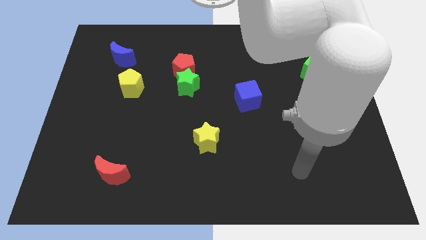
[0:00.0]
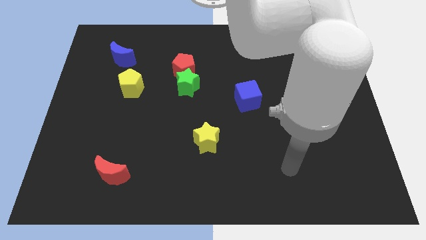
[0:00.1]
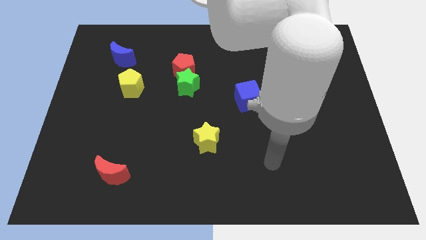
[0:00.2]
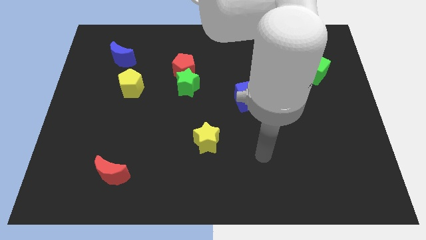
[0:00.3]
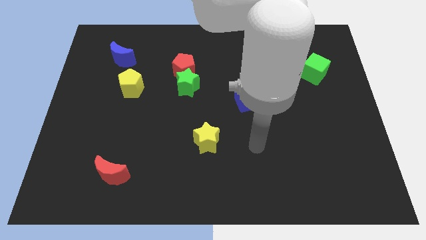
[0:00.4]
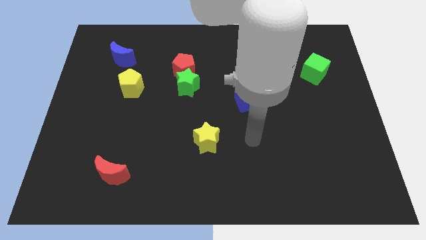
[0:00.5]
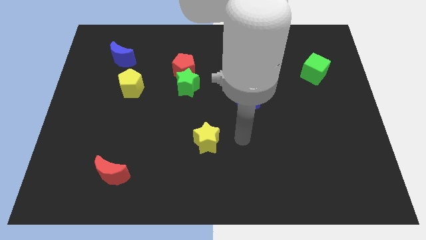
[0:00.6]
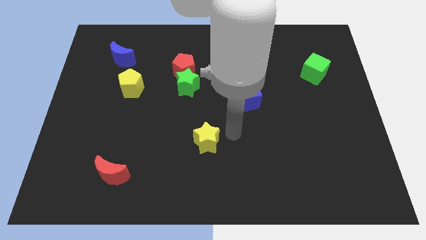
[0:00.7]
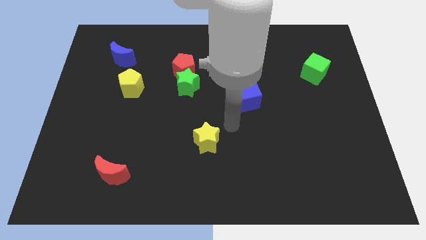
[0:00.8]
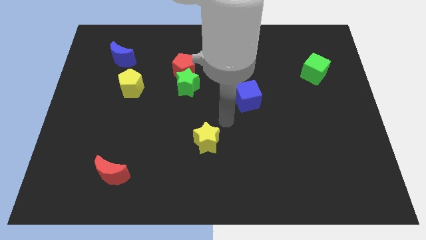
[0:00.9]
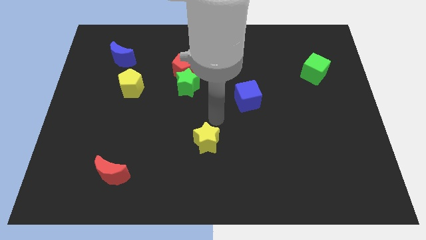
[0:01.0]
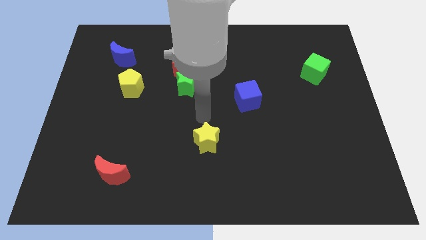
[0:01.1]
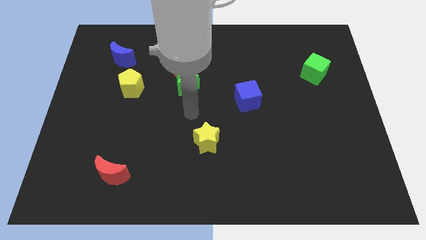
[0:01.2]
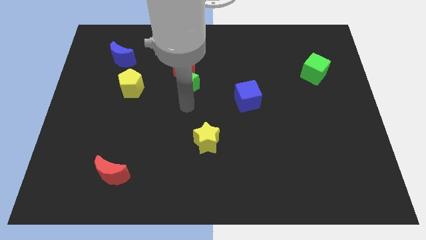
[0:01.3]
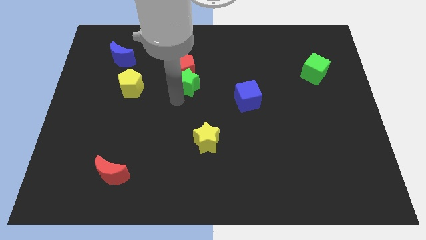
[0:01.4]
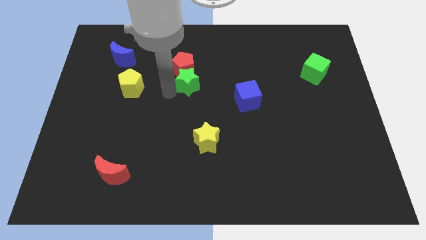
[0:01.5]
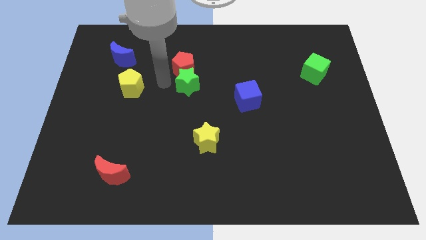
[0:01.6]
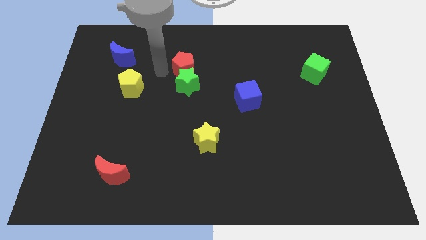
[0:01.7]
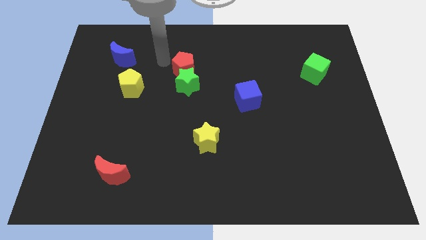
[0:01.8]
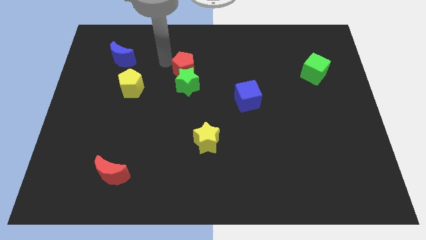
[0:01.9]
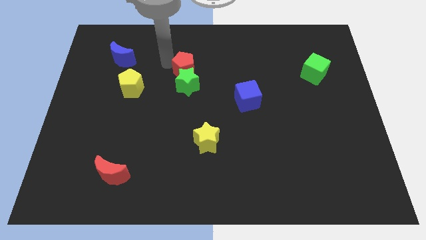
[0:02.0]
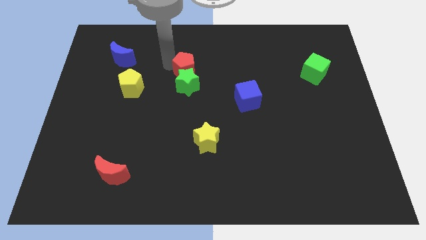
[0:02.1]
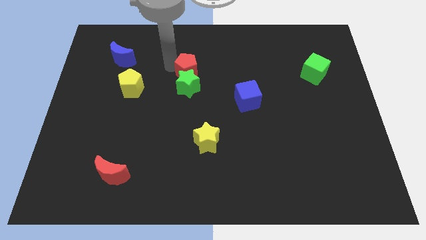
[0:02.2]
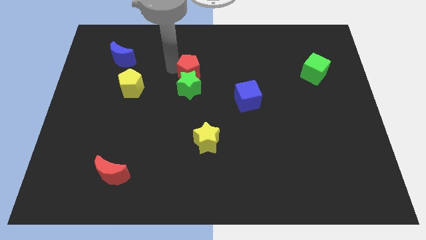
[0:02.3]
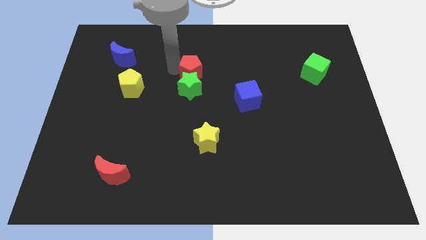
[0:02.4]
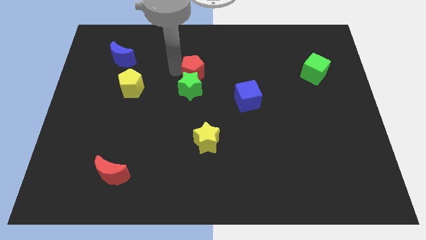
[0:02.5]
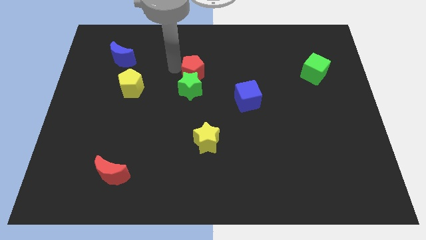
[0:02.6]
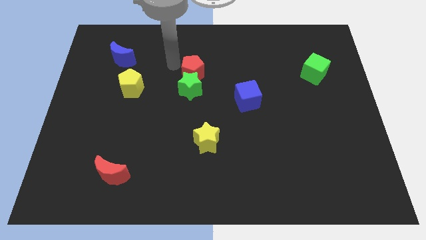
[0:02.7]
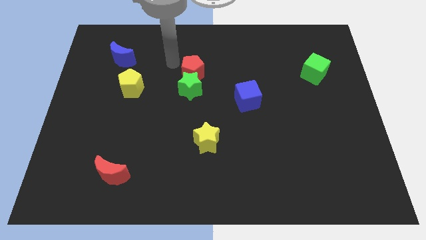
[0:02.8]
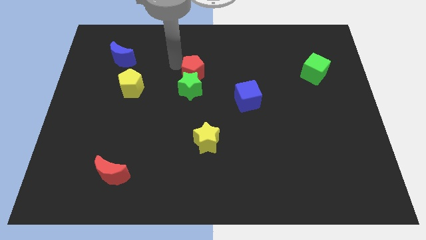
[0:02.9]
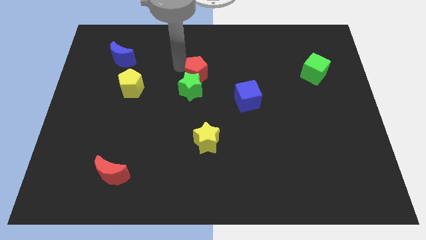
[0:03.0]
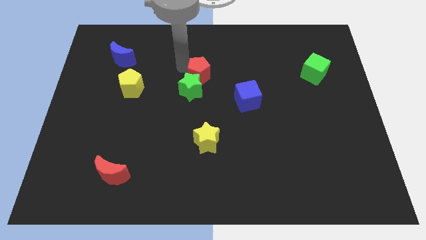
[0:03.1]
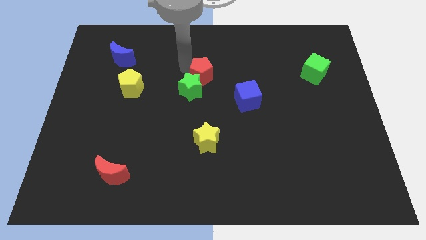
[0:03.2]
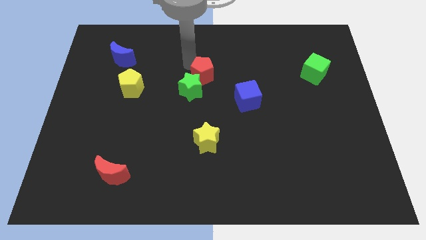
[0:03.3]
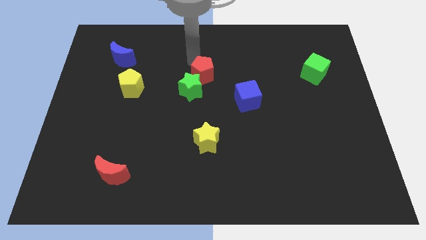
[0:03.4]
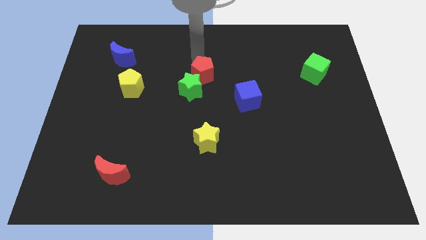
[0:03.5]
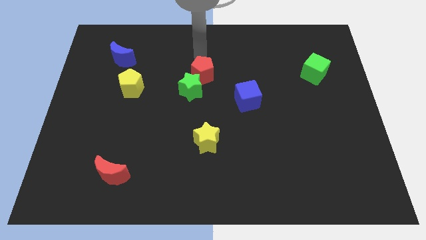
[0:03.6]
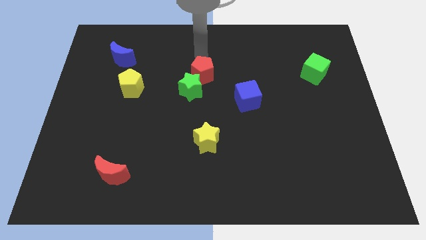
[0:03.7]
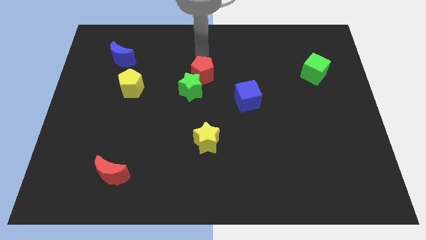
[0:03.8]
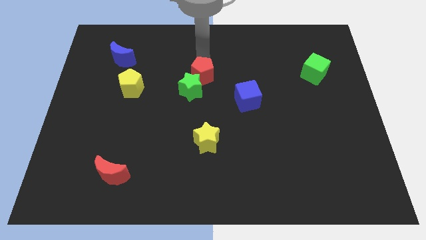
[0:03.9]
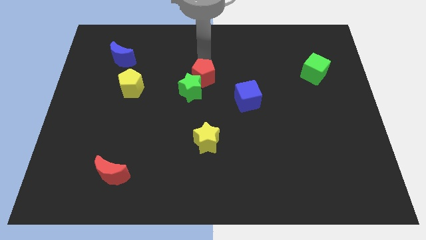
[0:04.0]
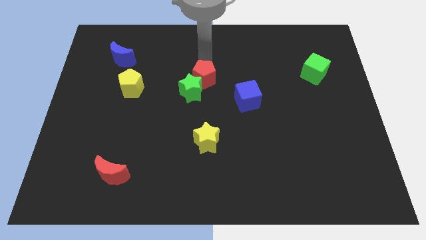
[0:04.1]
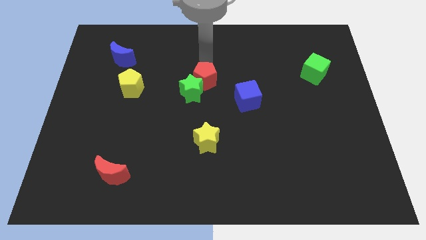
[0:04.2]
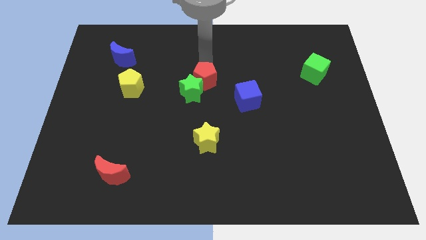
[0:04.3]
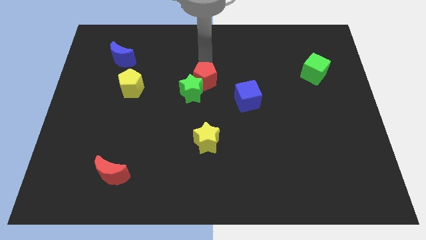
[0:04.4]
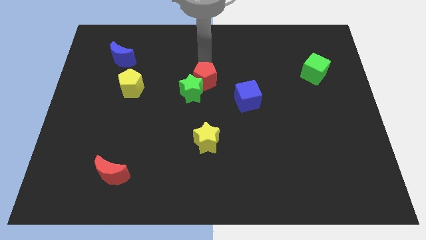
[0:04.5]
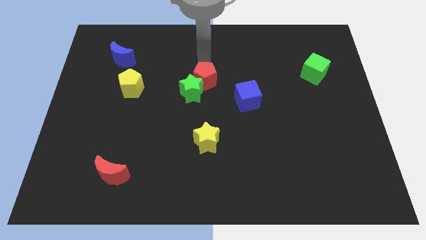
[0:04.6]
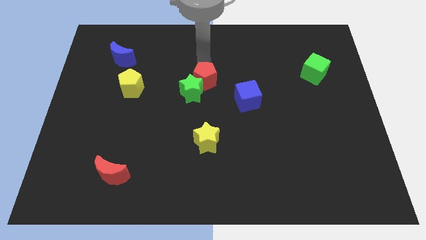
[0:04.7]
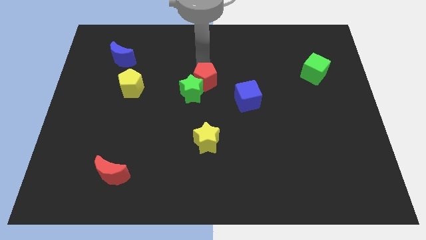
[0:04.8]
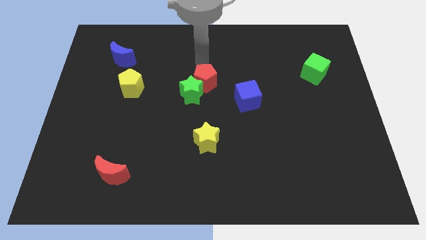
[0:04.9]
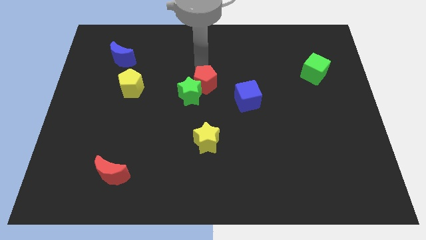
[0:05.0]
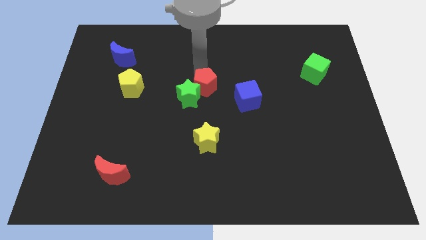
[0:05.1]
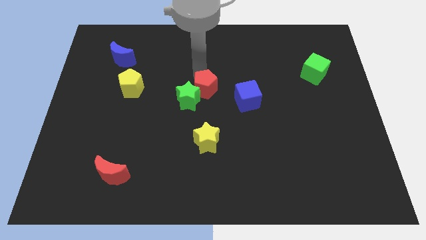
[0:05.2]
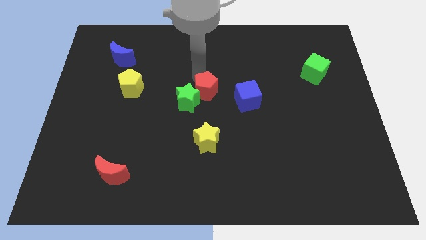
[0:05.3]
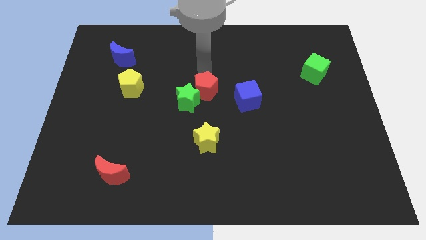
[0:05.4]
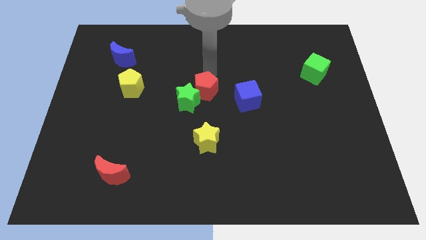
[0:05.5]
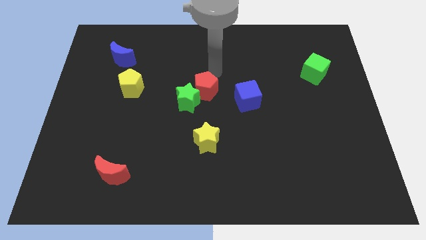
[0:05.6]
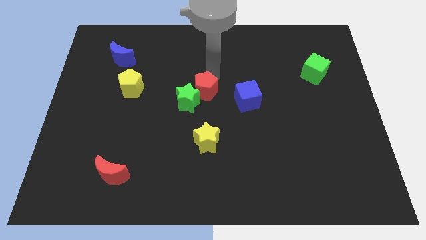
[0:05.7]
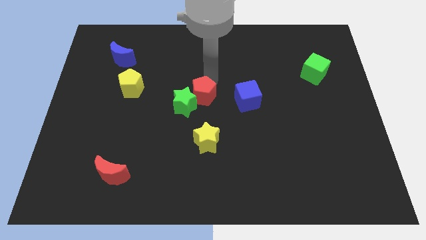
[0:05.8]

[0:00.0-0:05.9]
slightly push the red pentagon downwards

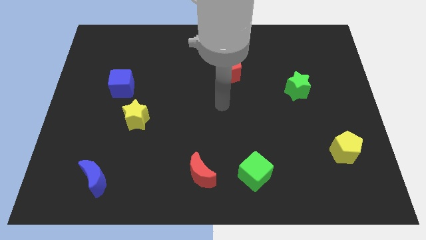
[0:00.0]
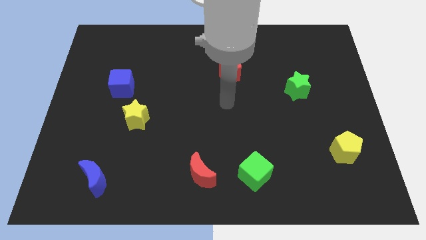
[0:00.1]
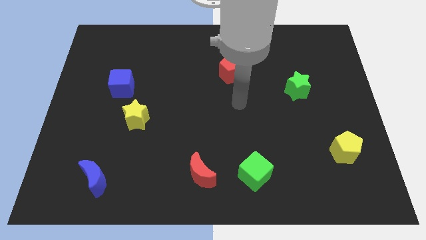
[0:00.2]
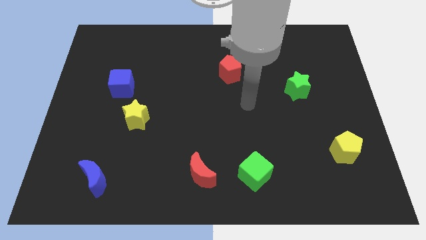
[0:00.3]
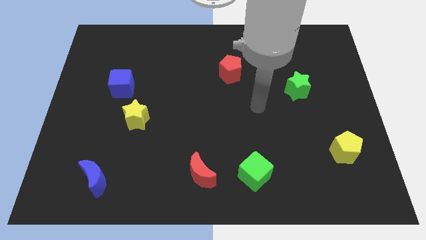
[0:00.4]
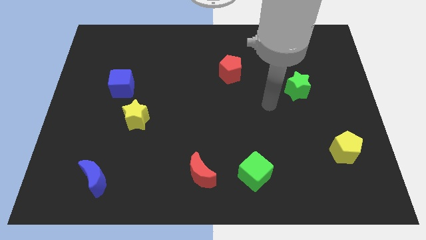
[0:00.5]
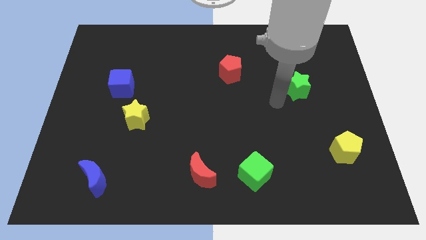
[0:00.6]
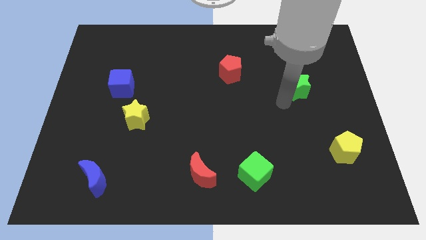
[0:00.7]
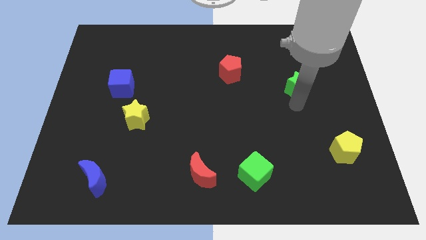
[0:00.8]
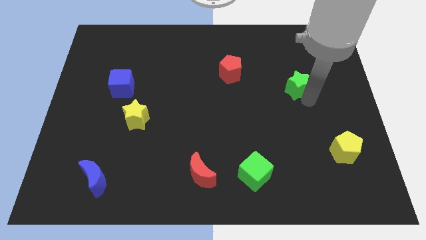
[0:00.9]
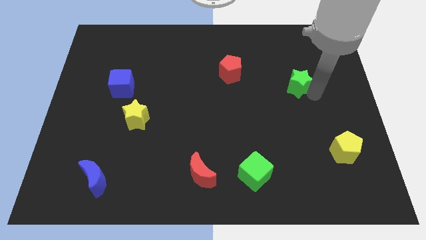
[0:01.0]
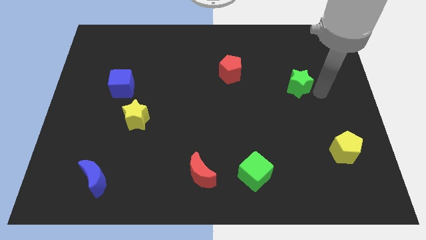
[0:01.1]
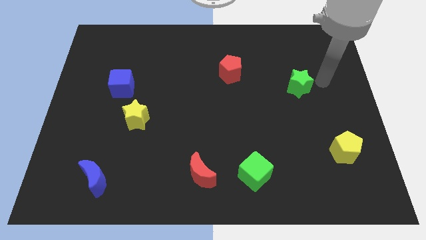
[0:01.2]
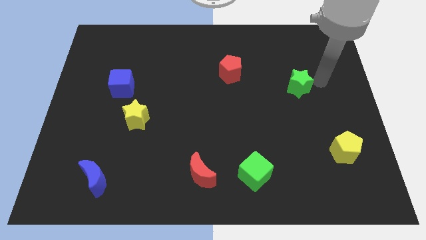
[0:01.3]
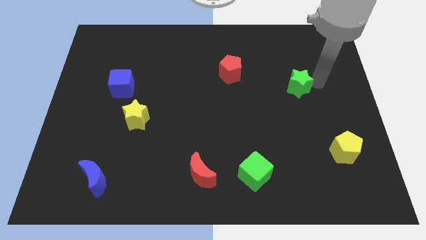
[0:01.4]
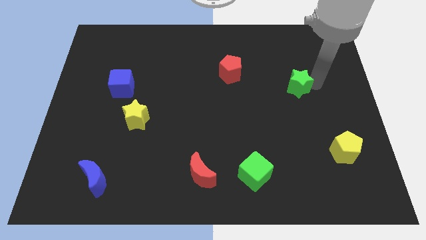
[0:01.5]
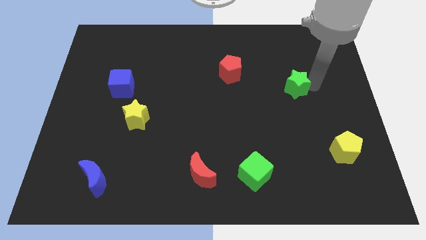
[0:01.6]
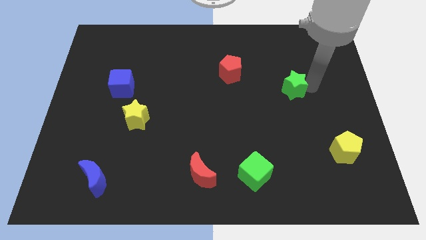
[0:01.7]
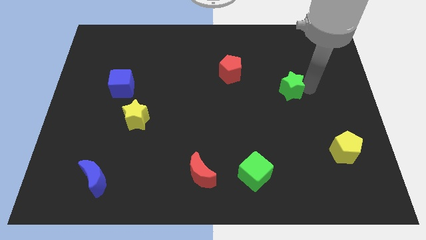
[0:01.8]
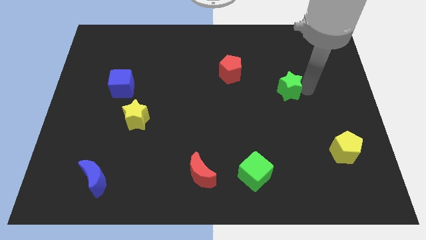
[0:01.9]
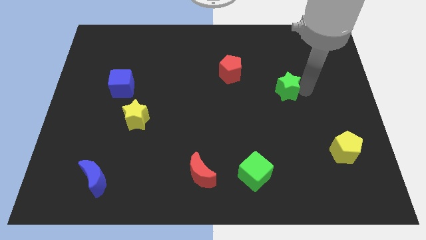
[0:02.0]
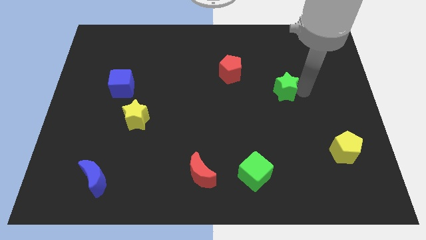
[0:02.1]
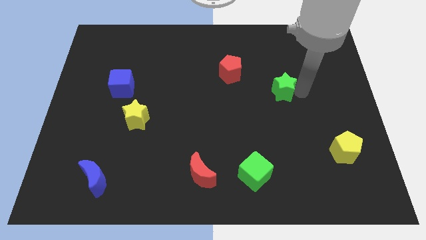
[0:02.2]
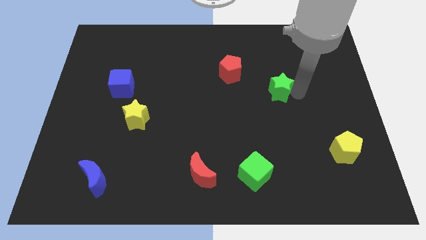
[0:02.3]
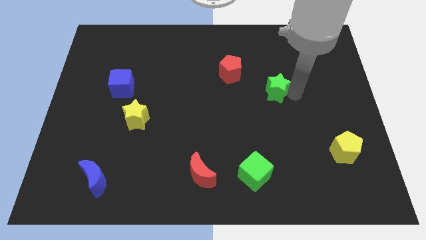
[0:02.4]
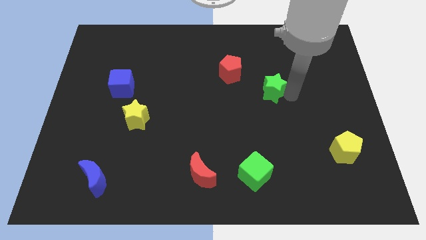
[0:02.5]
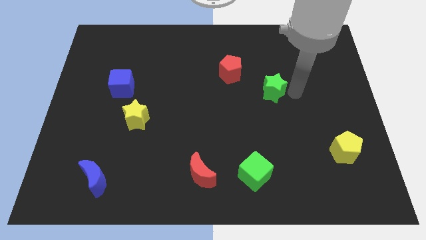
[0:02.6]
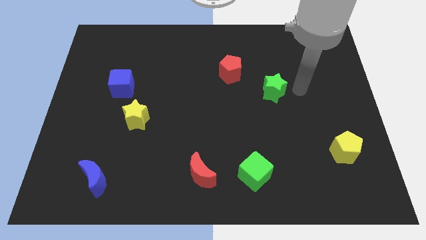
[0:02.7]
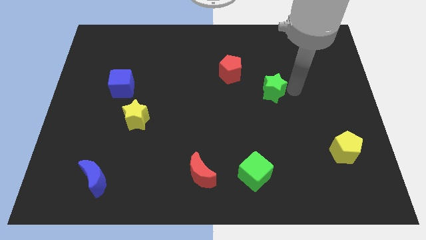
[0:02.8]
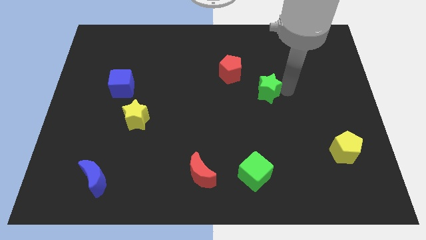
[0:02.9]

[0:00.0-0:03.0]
move the green star a little left
